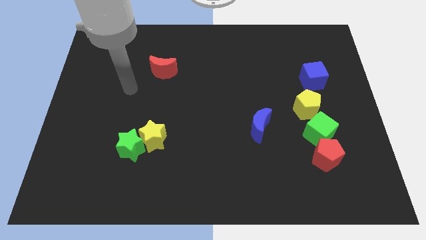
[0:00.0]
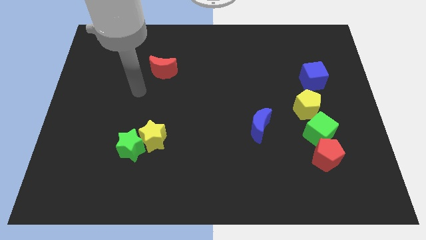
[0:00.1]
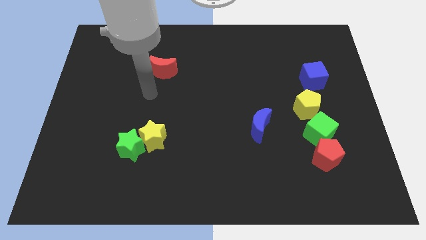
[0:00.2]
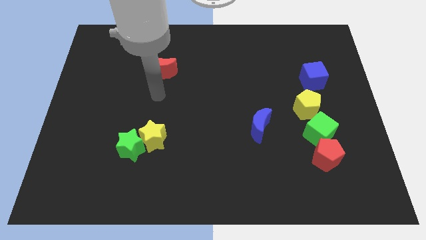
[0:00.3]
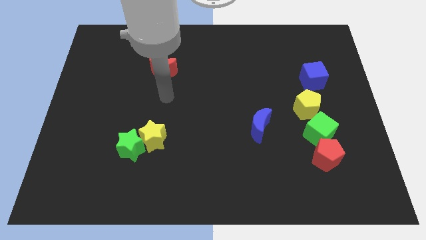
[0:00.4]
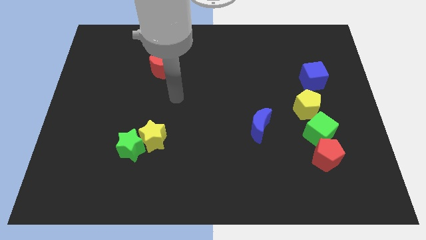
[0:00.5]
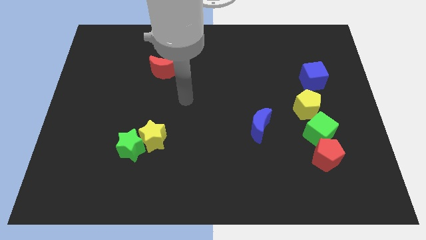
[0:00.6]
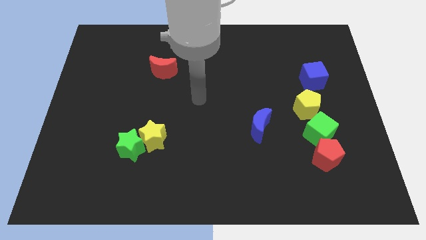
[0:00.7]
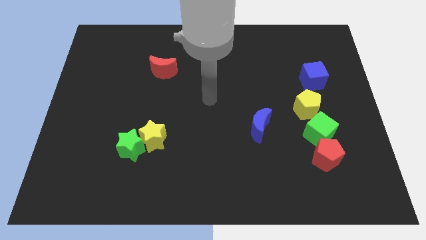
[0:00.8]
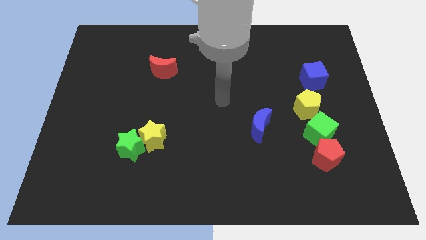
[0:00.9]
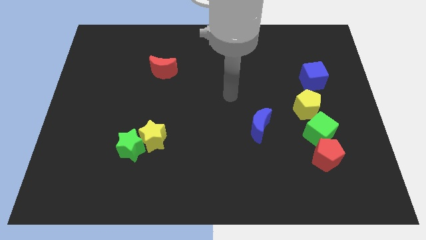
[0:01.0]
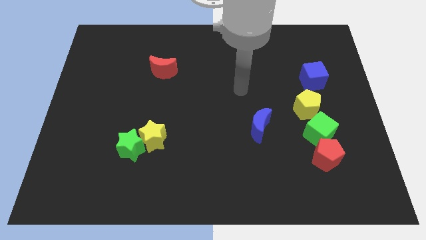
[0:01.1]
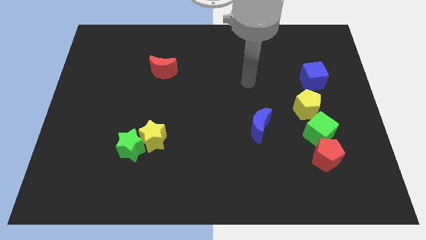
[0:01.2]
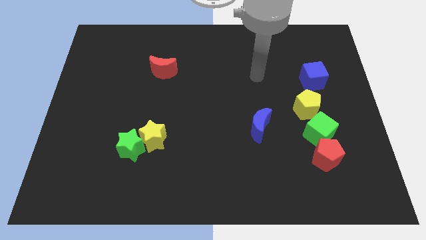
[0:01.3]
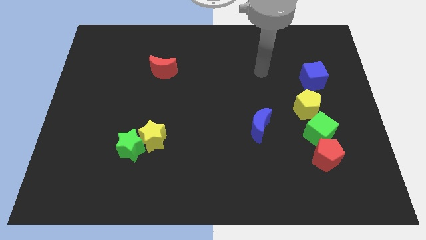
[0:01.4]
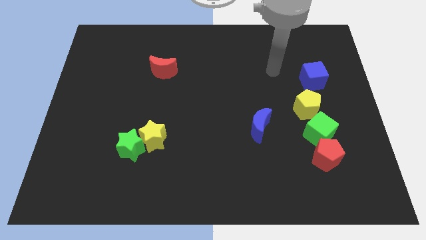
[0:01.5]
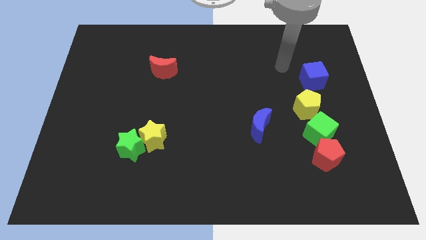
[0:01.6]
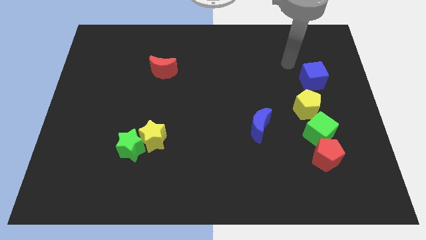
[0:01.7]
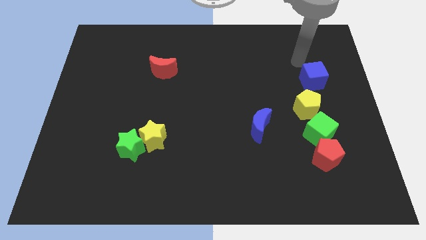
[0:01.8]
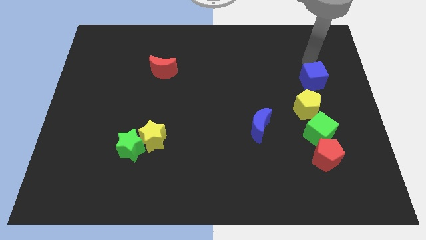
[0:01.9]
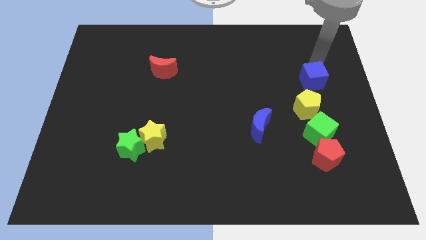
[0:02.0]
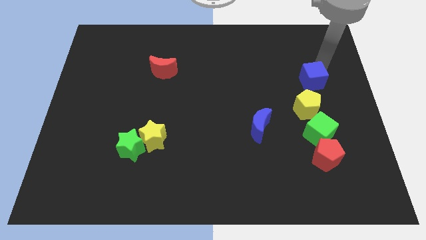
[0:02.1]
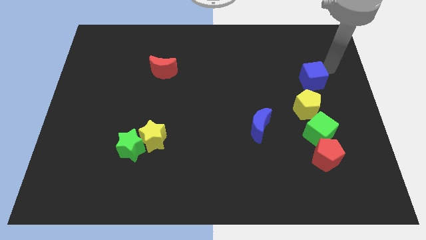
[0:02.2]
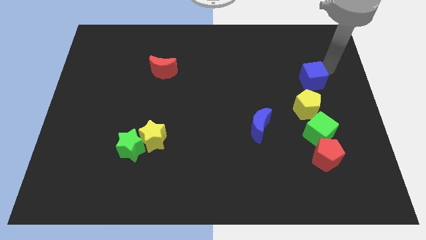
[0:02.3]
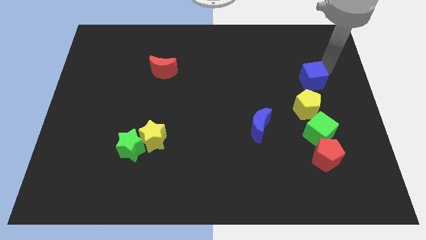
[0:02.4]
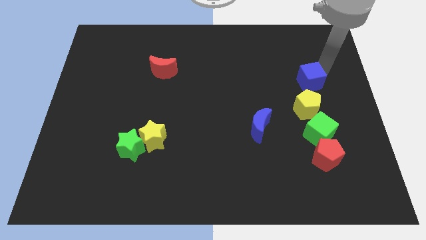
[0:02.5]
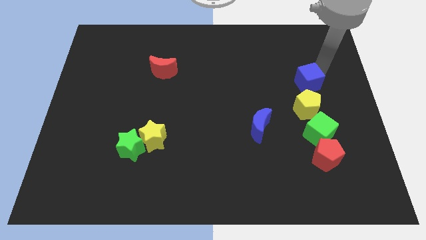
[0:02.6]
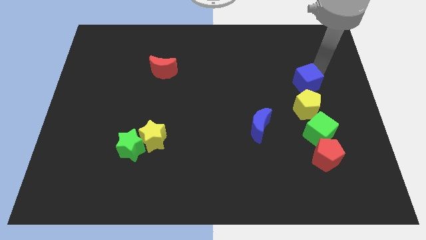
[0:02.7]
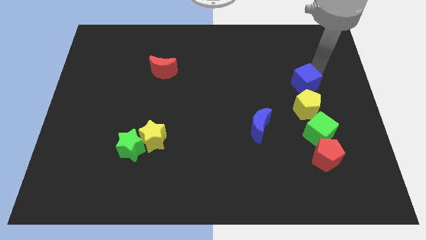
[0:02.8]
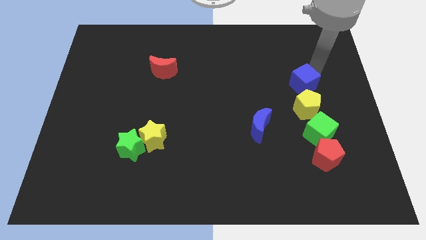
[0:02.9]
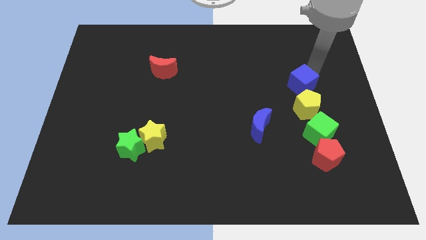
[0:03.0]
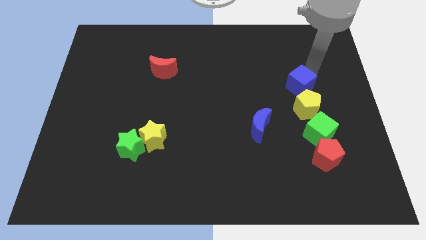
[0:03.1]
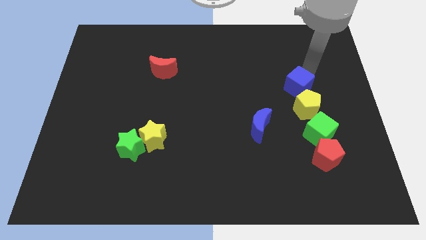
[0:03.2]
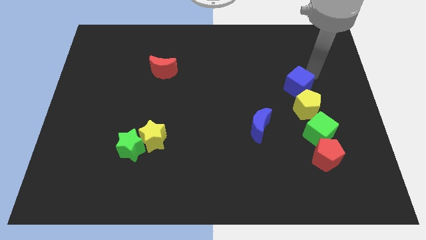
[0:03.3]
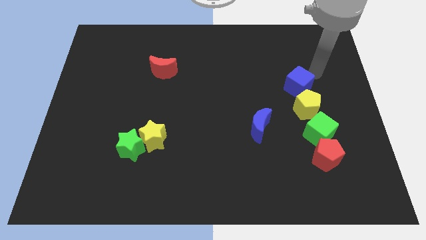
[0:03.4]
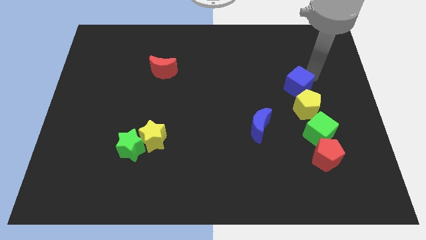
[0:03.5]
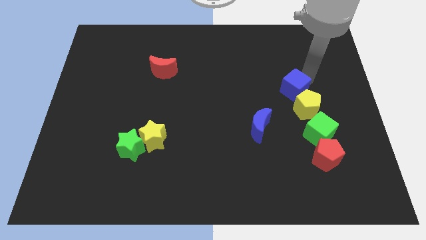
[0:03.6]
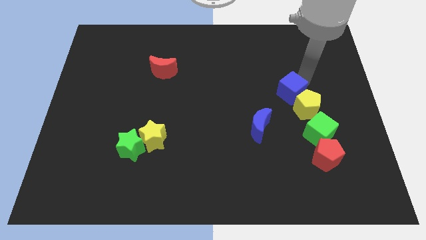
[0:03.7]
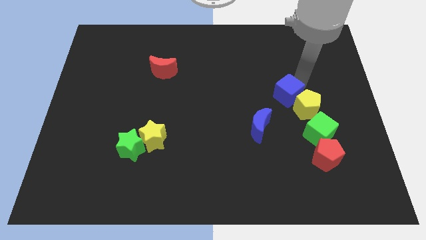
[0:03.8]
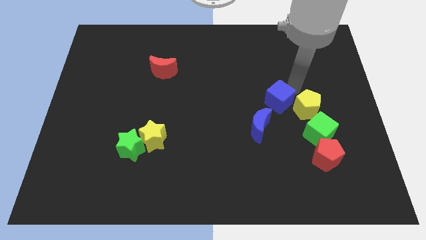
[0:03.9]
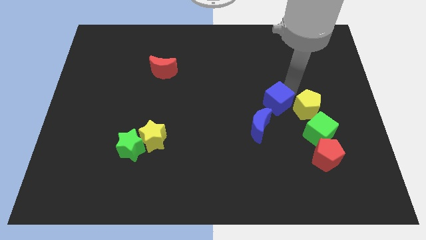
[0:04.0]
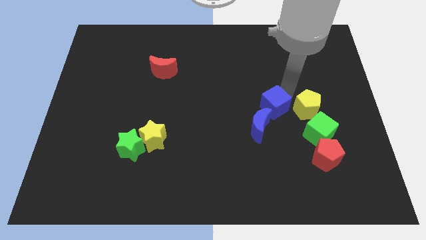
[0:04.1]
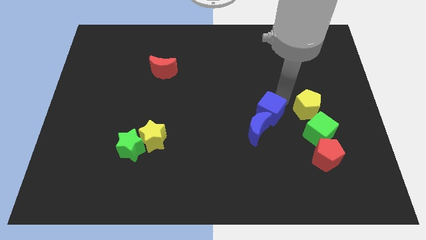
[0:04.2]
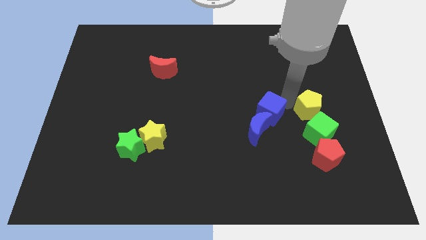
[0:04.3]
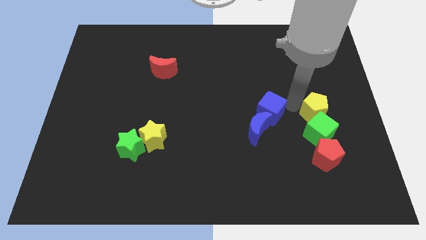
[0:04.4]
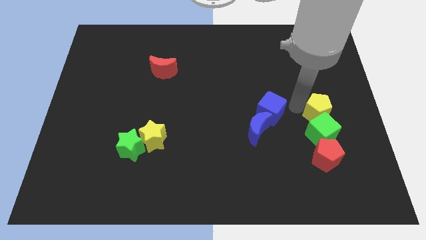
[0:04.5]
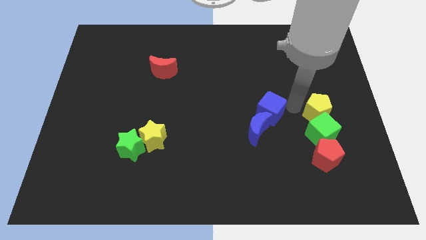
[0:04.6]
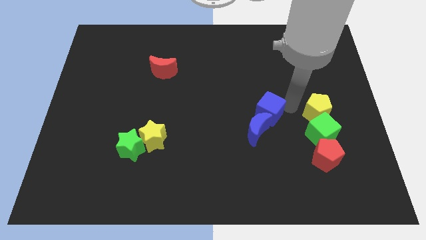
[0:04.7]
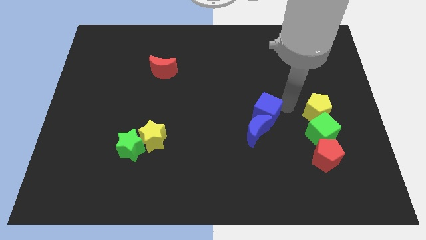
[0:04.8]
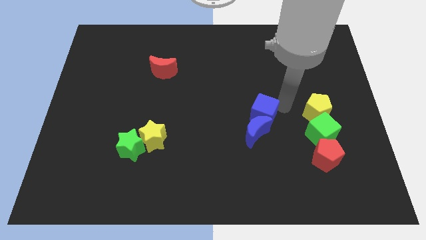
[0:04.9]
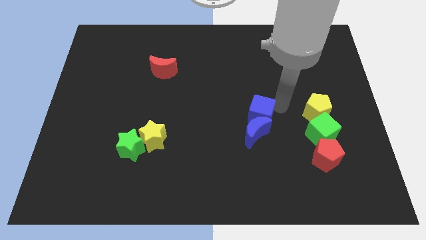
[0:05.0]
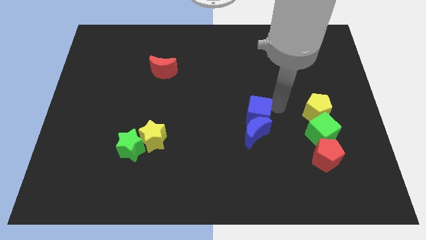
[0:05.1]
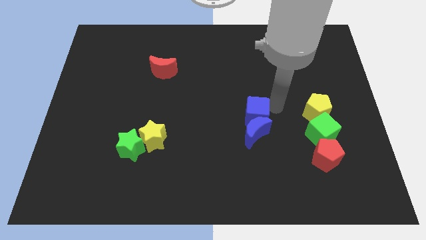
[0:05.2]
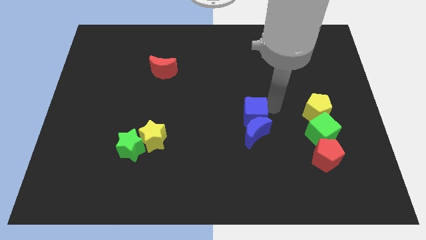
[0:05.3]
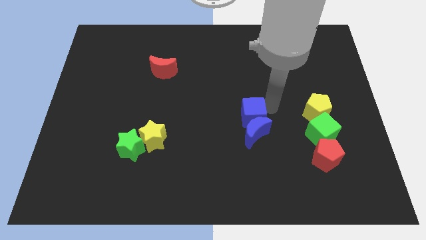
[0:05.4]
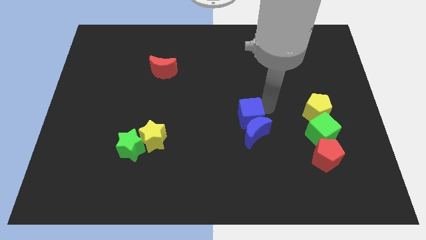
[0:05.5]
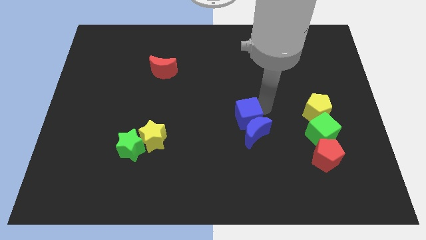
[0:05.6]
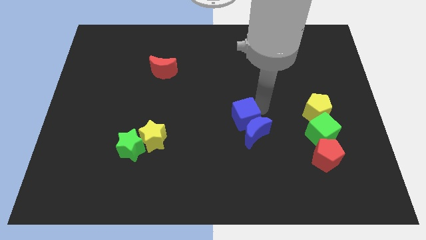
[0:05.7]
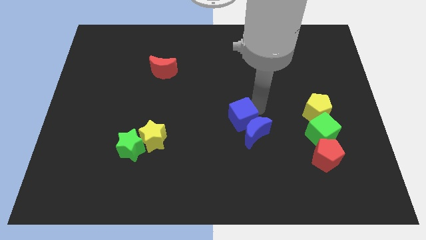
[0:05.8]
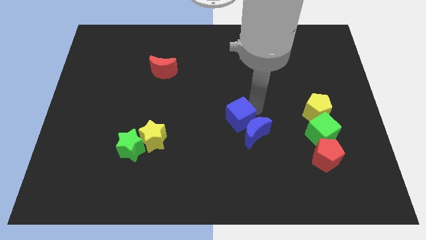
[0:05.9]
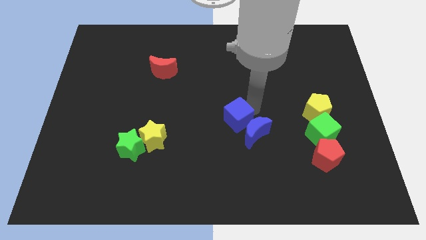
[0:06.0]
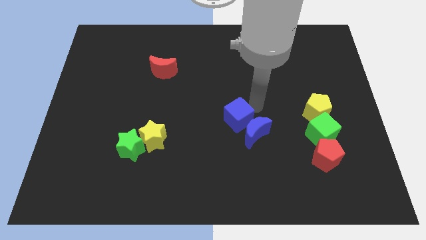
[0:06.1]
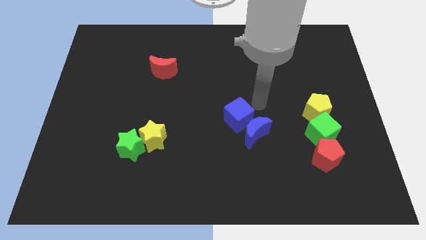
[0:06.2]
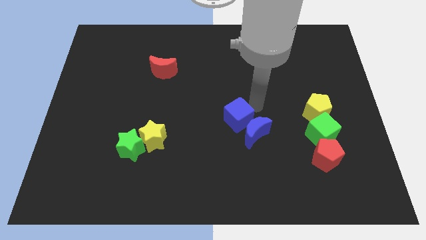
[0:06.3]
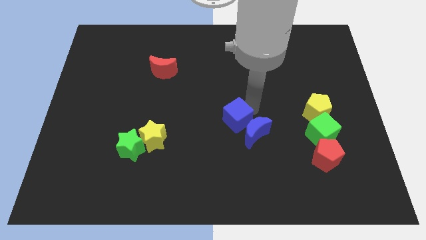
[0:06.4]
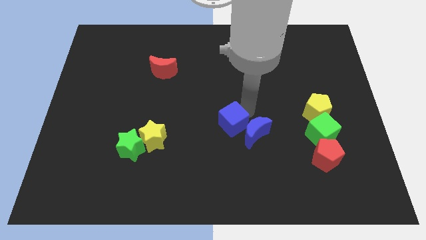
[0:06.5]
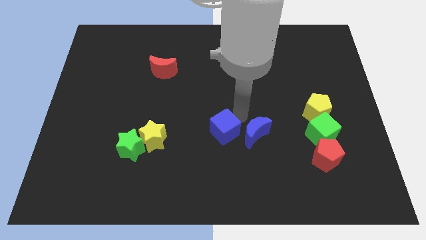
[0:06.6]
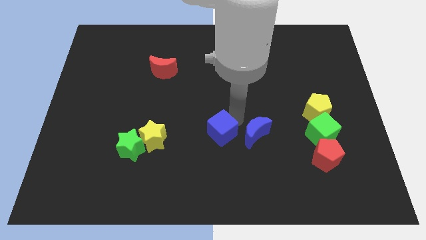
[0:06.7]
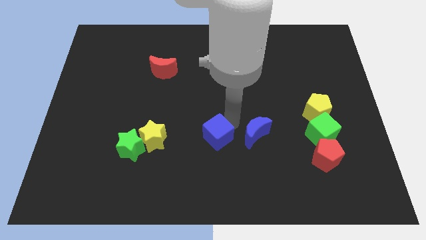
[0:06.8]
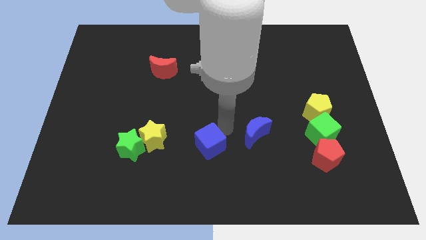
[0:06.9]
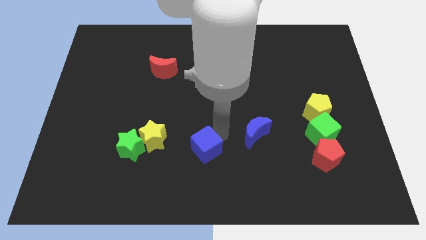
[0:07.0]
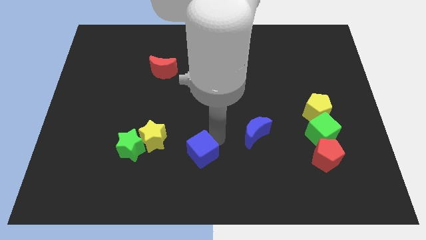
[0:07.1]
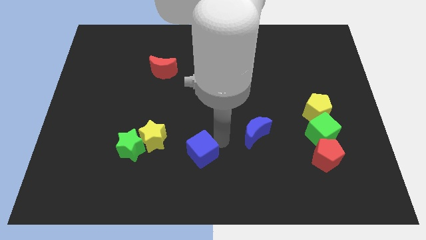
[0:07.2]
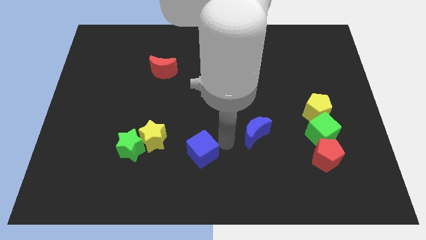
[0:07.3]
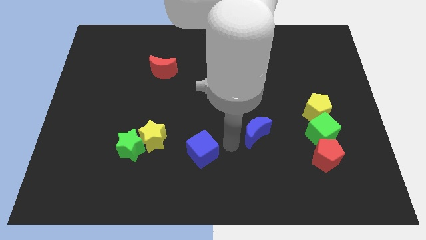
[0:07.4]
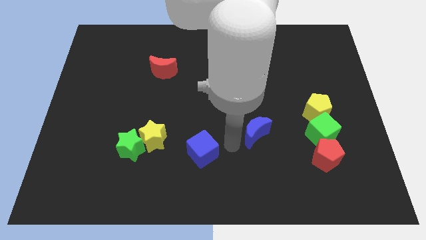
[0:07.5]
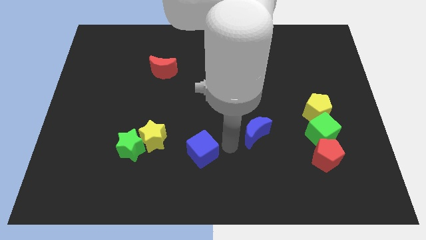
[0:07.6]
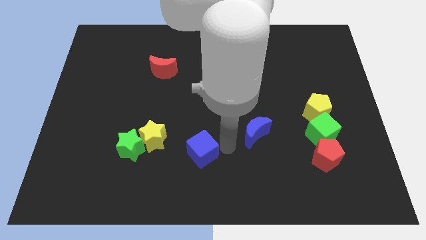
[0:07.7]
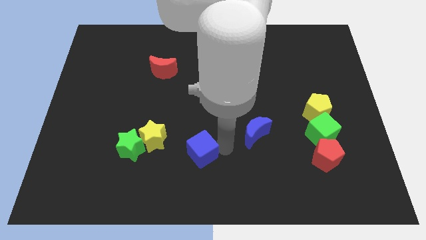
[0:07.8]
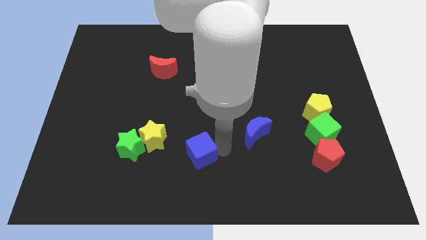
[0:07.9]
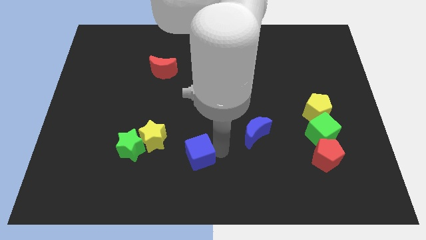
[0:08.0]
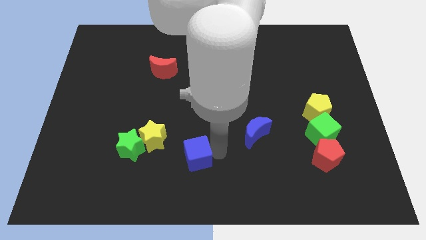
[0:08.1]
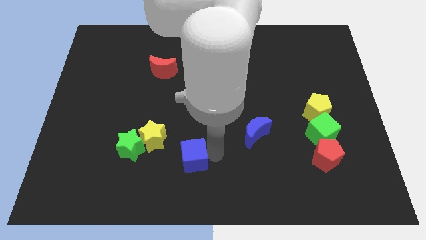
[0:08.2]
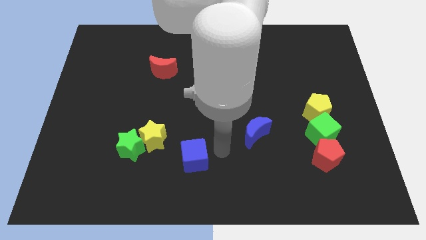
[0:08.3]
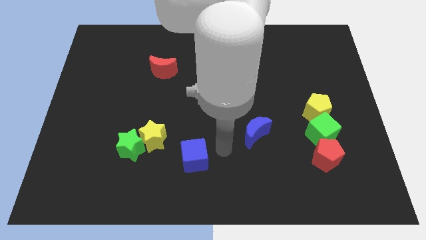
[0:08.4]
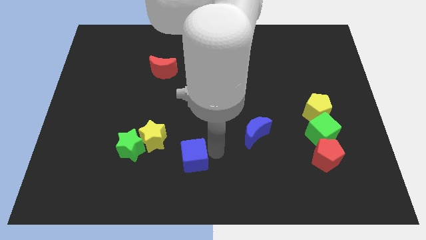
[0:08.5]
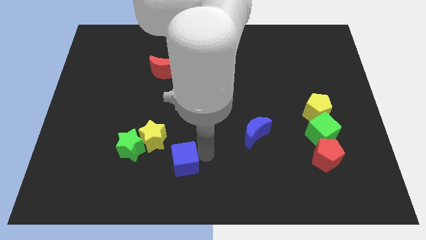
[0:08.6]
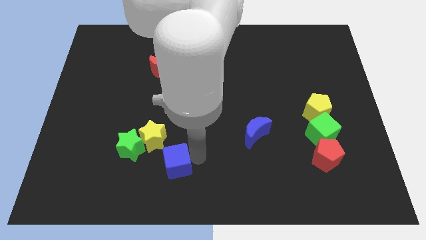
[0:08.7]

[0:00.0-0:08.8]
push the blue cube to the bottom right of the green star
